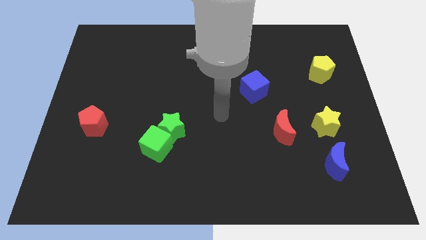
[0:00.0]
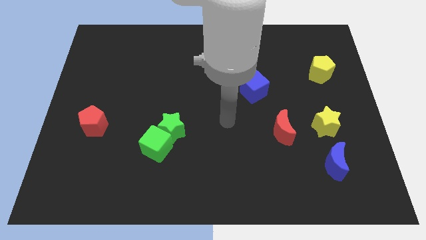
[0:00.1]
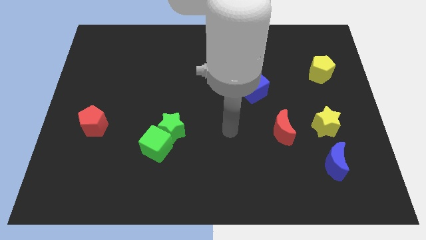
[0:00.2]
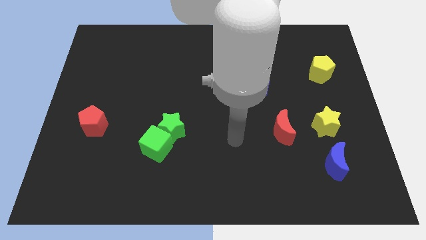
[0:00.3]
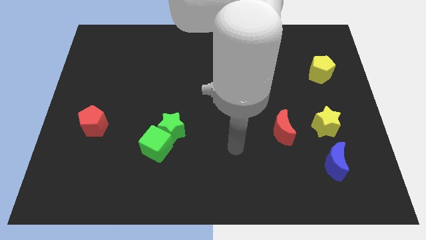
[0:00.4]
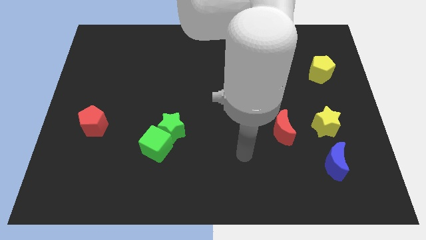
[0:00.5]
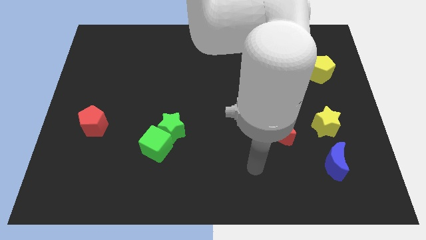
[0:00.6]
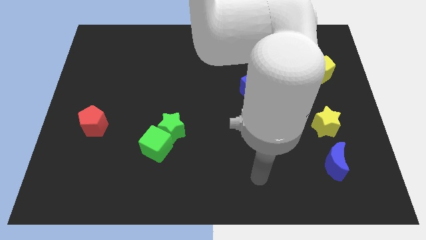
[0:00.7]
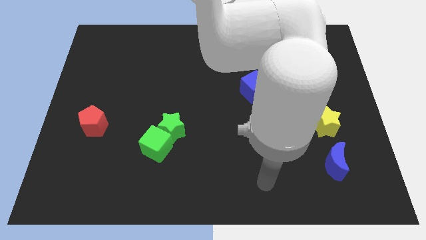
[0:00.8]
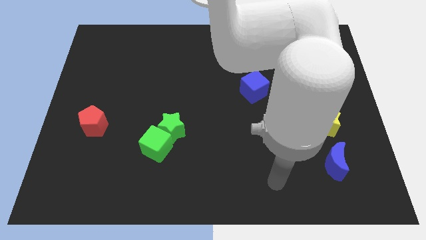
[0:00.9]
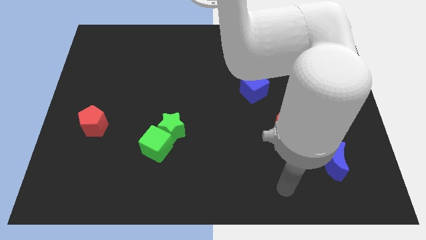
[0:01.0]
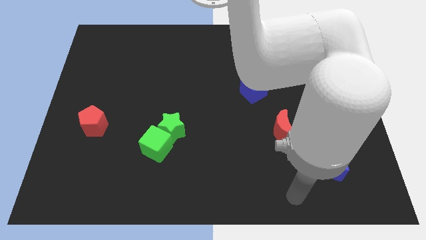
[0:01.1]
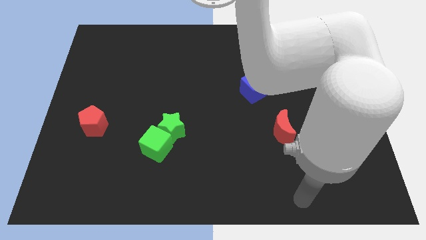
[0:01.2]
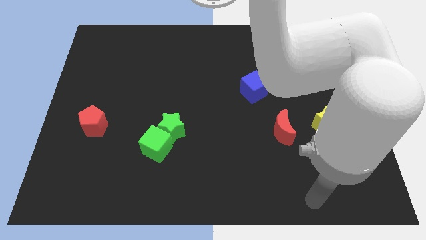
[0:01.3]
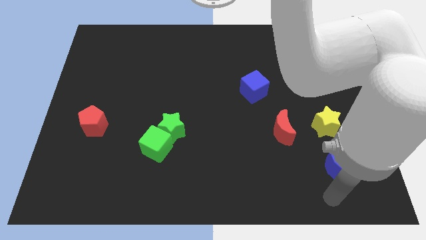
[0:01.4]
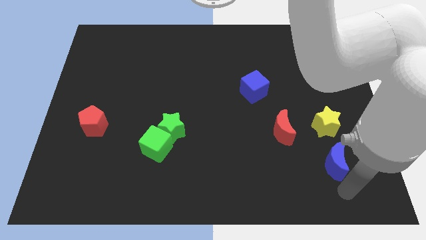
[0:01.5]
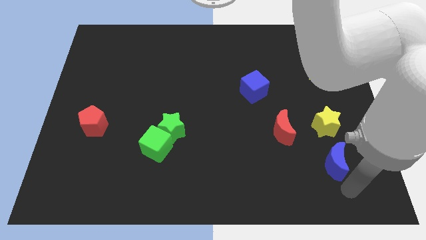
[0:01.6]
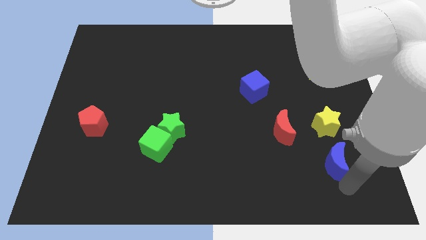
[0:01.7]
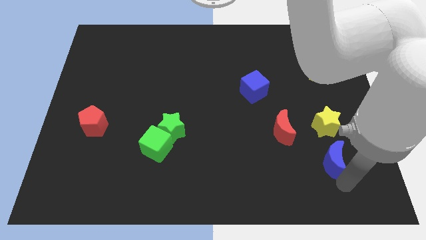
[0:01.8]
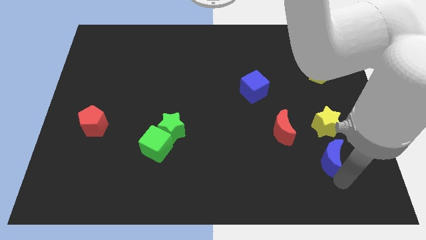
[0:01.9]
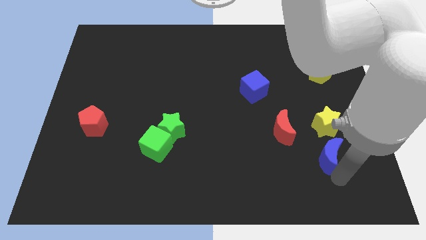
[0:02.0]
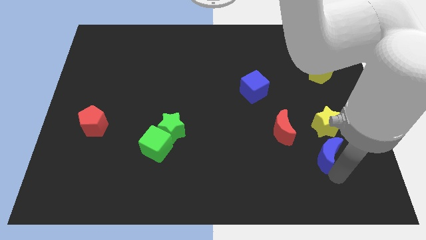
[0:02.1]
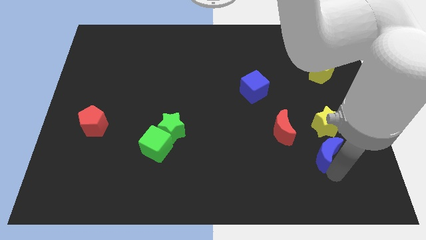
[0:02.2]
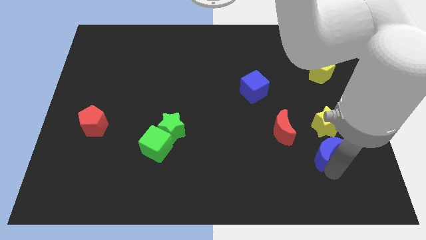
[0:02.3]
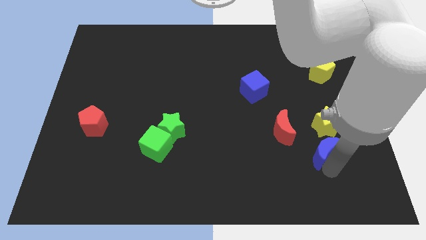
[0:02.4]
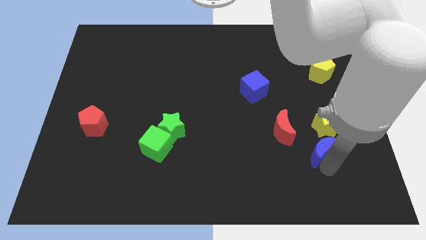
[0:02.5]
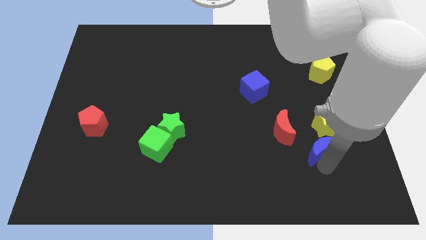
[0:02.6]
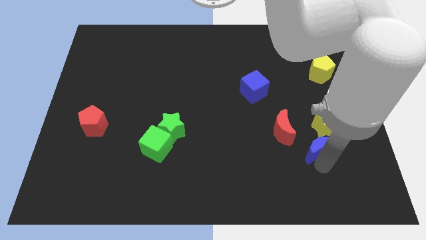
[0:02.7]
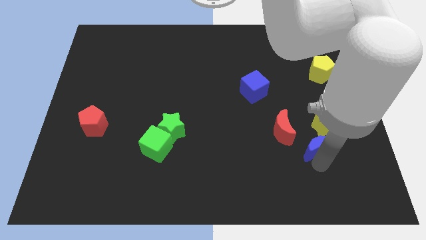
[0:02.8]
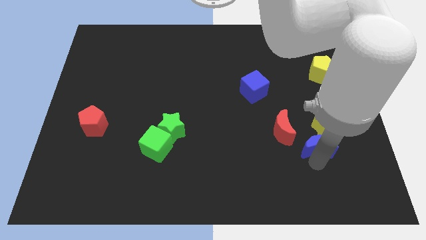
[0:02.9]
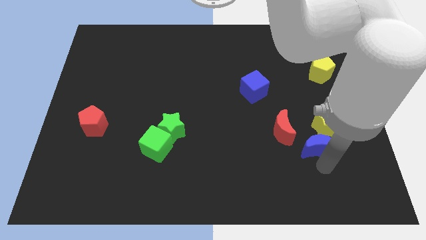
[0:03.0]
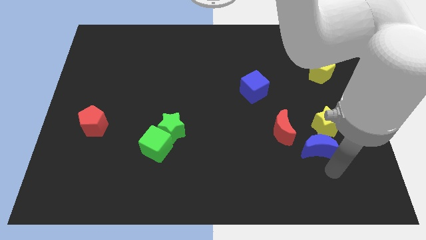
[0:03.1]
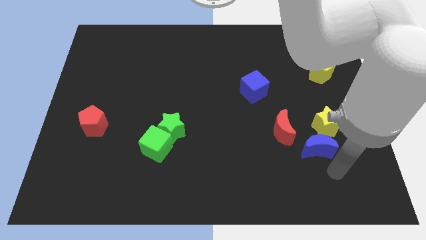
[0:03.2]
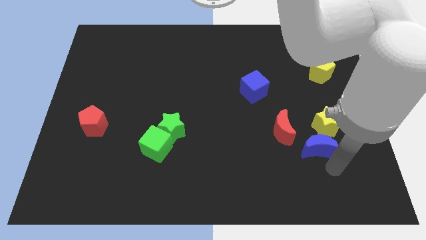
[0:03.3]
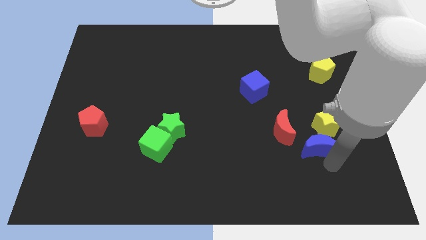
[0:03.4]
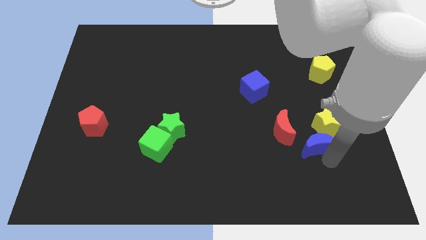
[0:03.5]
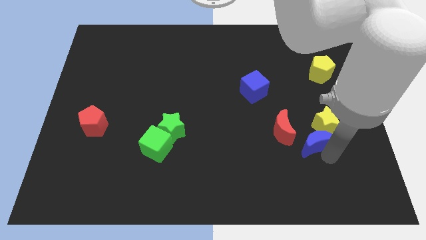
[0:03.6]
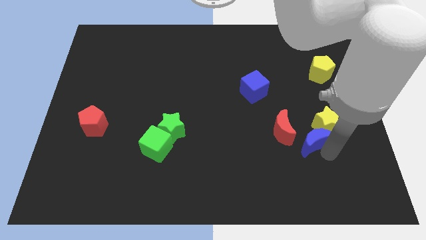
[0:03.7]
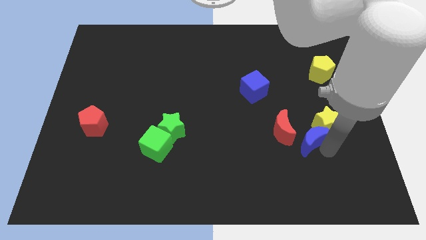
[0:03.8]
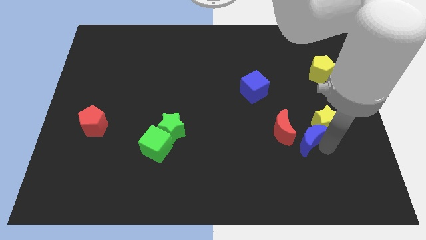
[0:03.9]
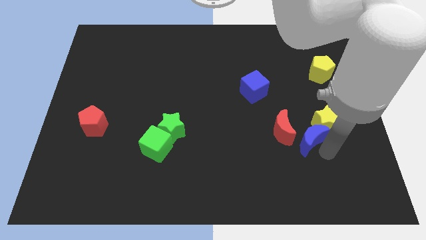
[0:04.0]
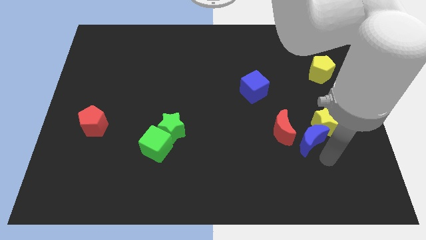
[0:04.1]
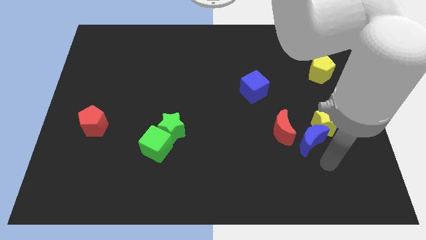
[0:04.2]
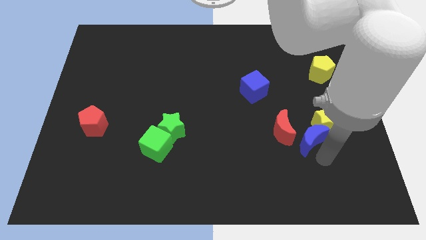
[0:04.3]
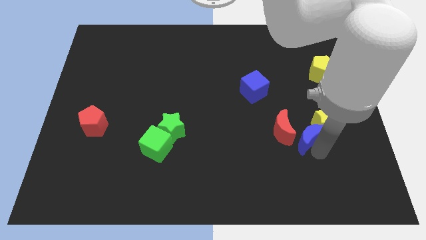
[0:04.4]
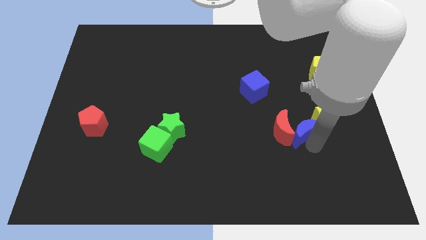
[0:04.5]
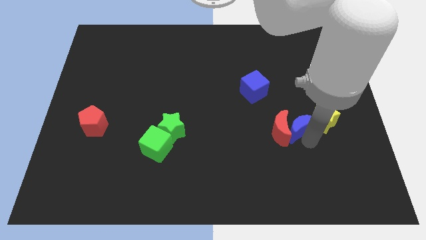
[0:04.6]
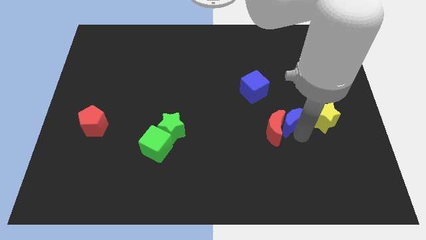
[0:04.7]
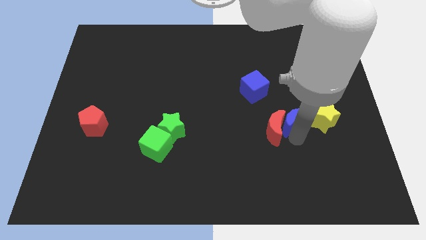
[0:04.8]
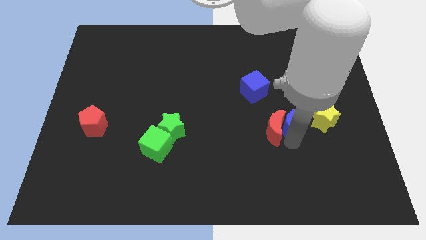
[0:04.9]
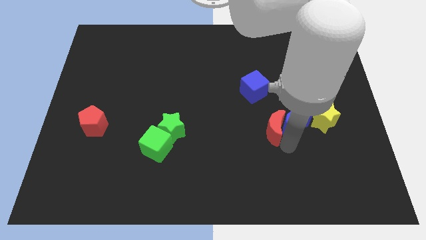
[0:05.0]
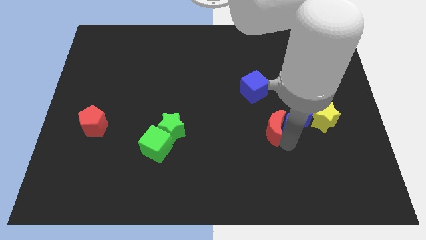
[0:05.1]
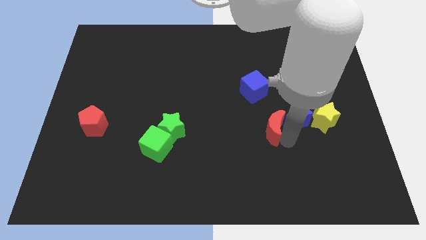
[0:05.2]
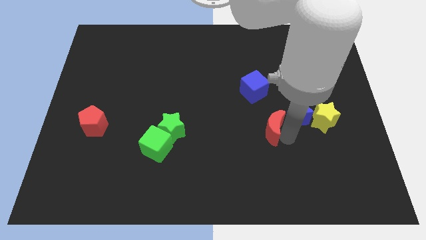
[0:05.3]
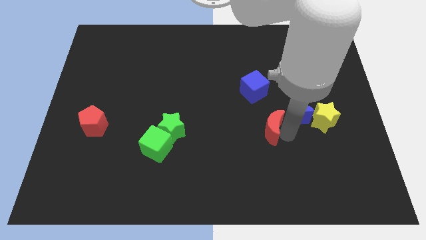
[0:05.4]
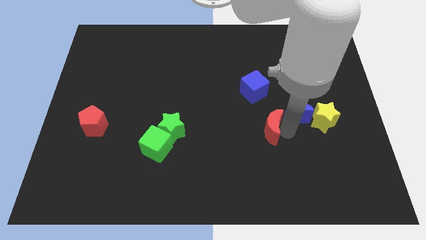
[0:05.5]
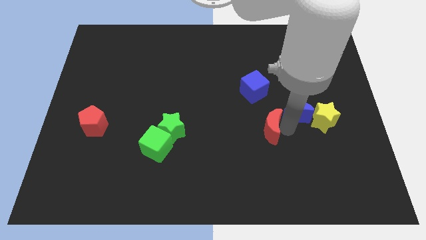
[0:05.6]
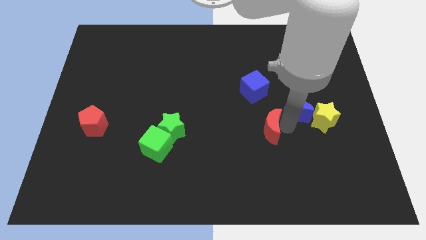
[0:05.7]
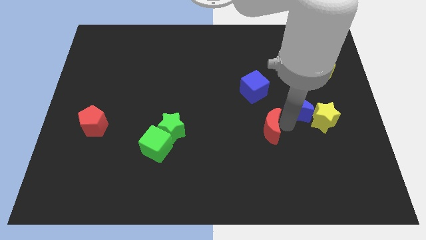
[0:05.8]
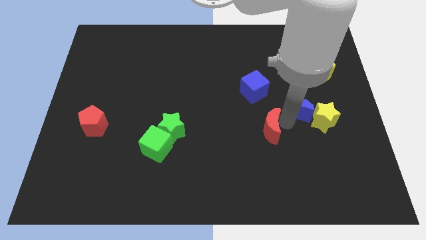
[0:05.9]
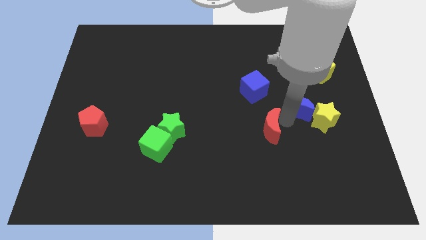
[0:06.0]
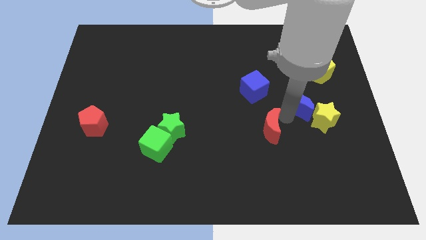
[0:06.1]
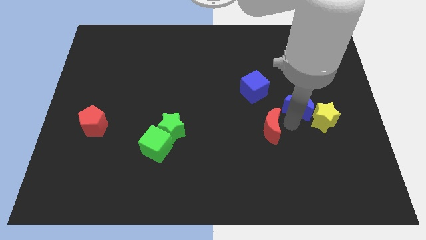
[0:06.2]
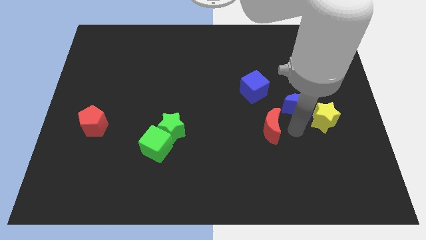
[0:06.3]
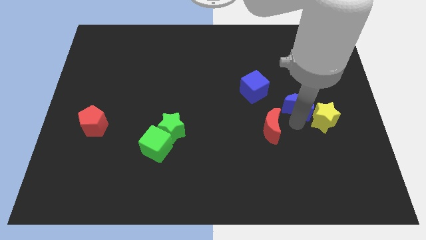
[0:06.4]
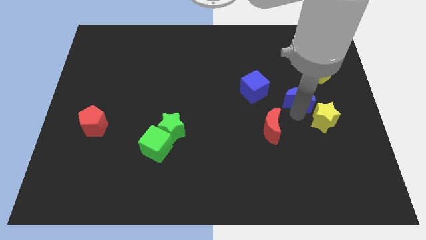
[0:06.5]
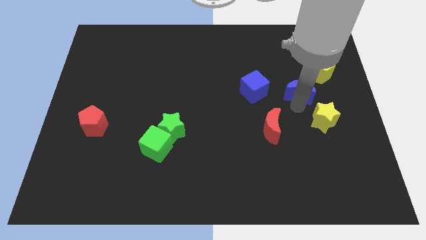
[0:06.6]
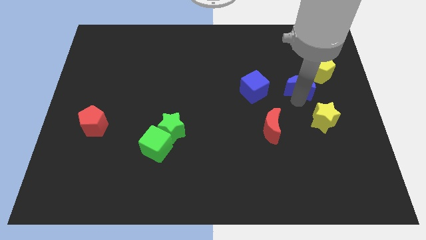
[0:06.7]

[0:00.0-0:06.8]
move the blue moon up

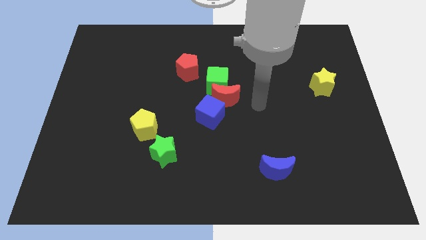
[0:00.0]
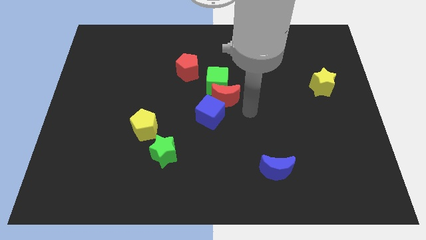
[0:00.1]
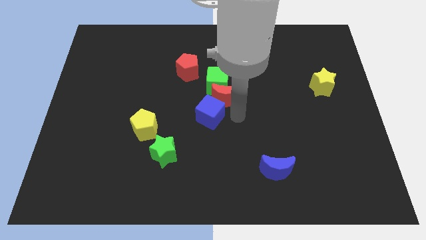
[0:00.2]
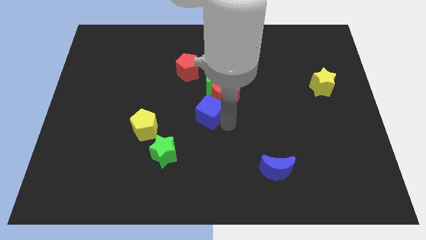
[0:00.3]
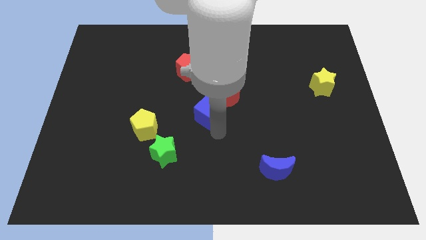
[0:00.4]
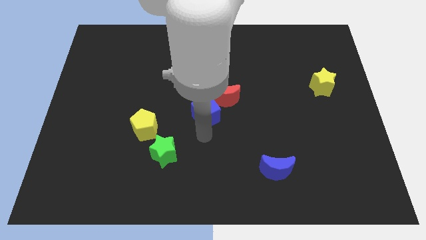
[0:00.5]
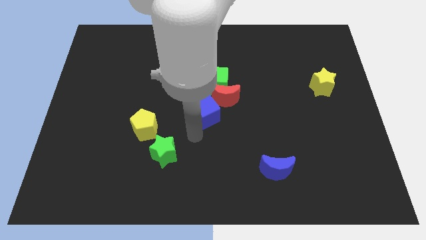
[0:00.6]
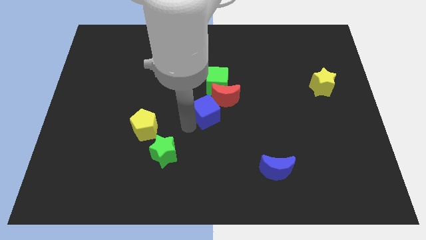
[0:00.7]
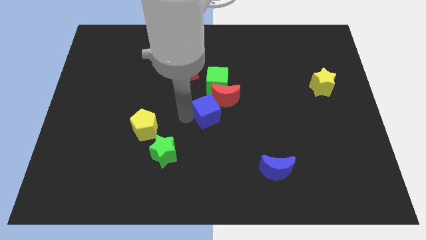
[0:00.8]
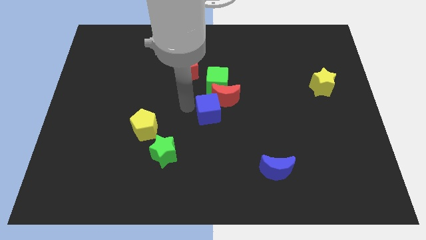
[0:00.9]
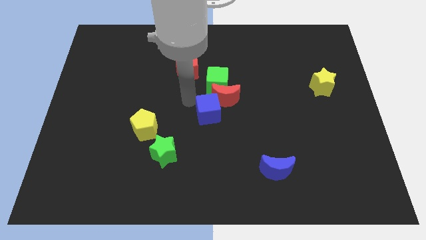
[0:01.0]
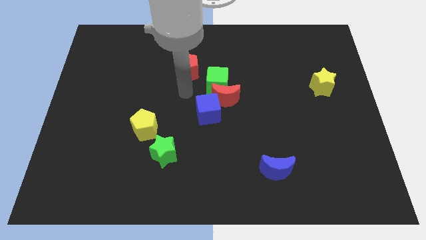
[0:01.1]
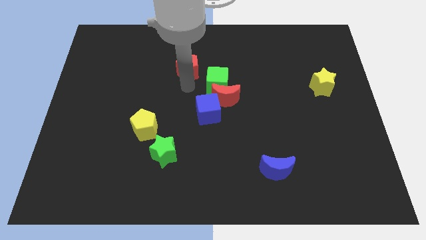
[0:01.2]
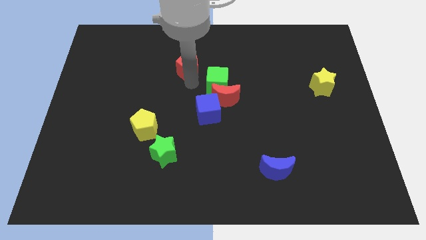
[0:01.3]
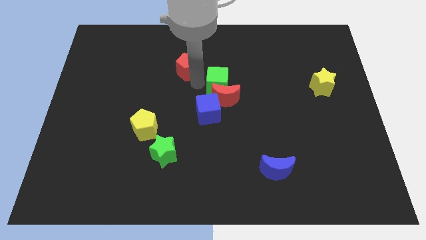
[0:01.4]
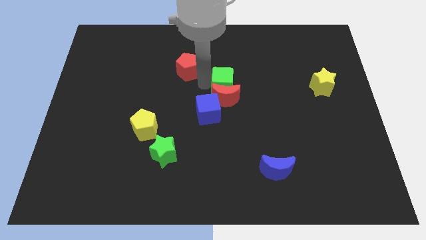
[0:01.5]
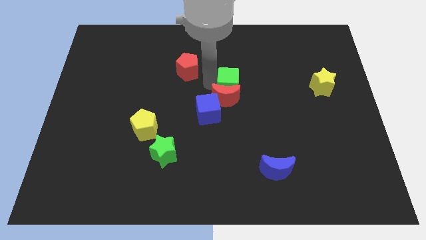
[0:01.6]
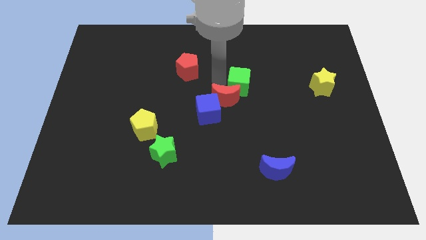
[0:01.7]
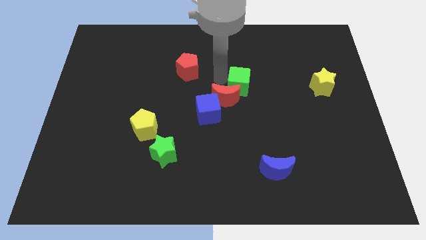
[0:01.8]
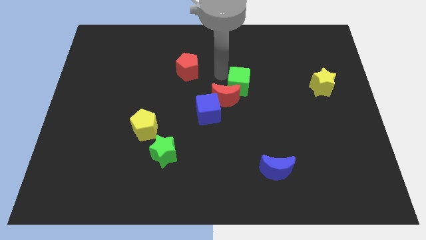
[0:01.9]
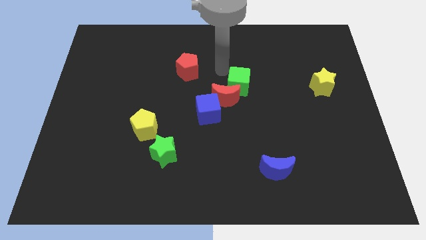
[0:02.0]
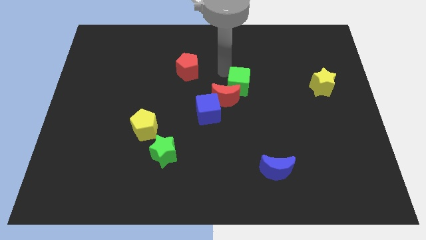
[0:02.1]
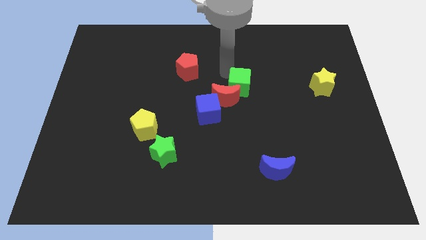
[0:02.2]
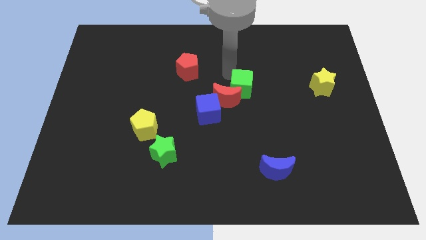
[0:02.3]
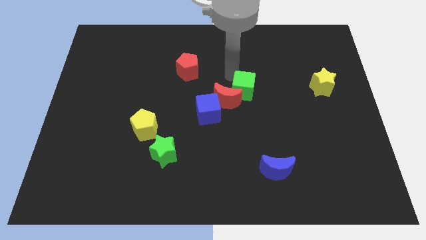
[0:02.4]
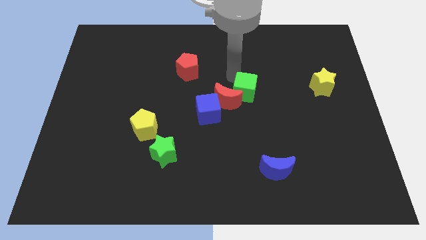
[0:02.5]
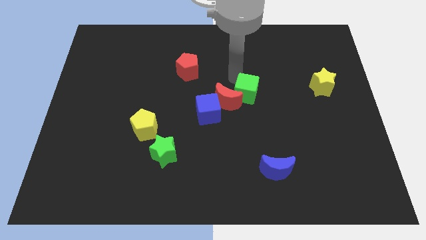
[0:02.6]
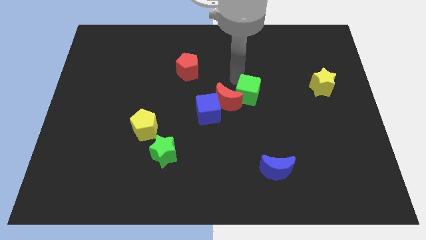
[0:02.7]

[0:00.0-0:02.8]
slightly push the green cube downwards and right diagonally
